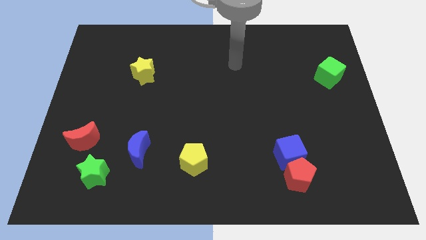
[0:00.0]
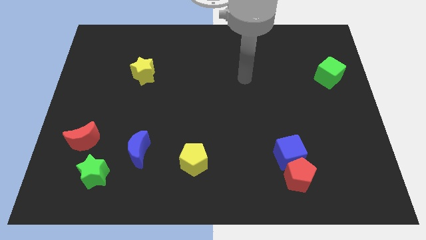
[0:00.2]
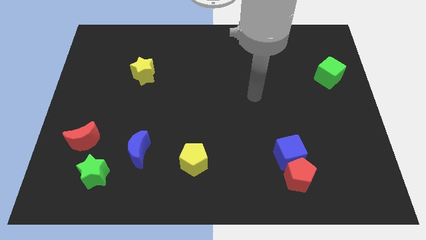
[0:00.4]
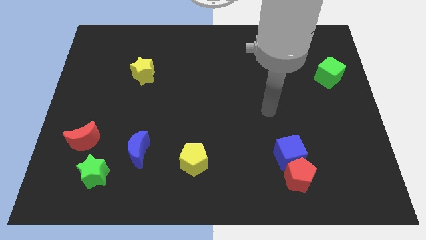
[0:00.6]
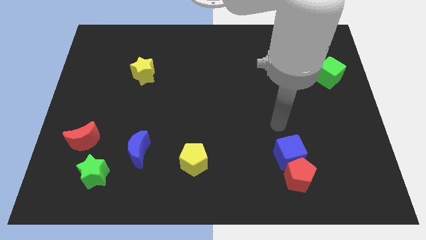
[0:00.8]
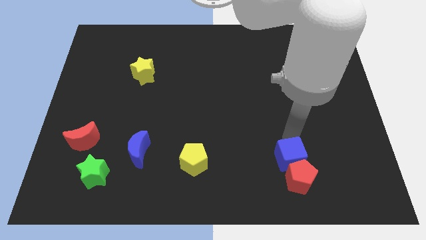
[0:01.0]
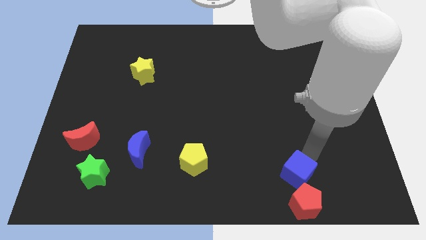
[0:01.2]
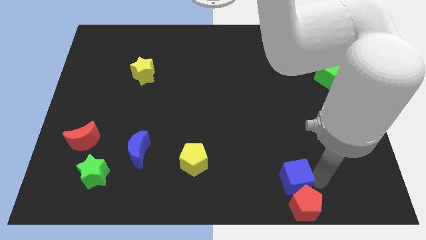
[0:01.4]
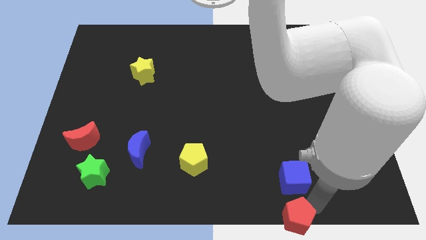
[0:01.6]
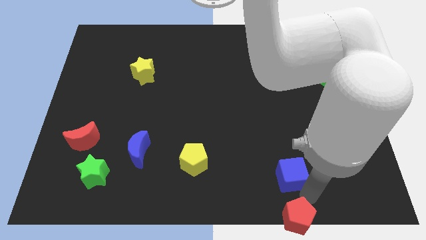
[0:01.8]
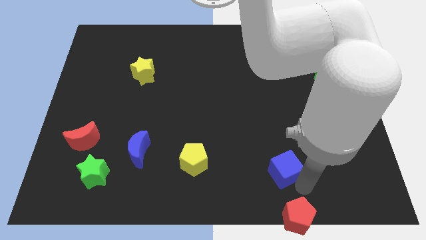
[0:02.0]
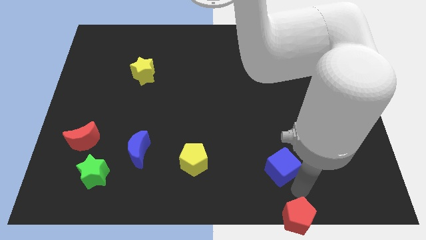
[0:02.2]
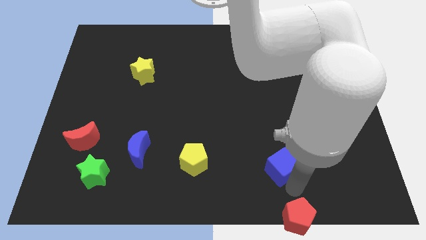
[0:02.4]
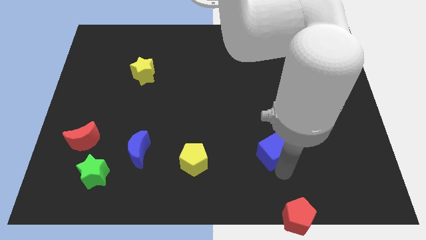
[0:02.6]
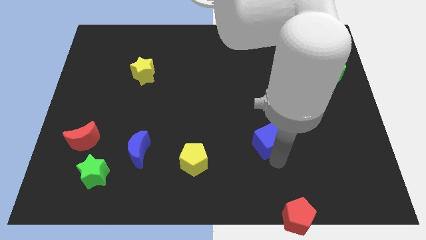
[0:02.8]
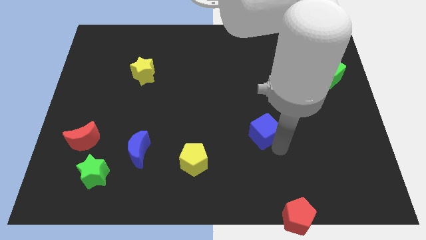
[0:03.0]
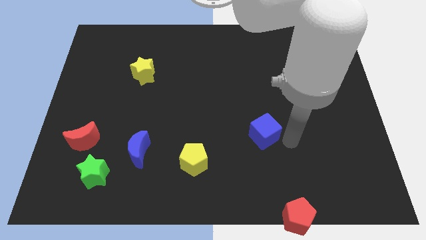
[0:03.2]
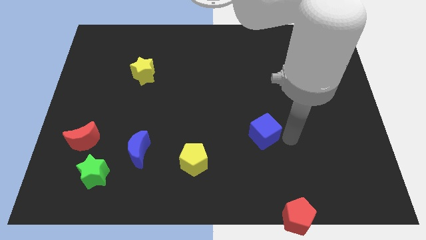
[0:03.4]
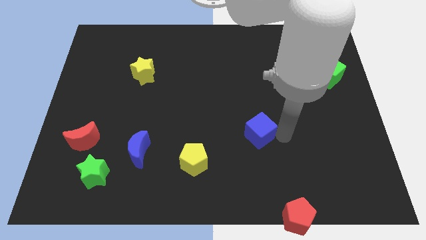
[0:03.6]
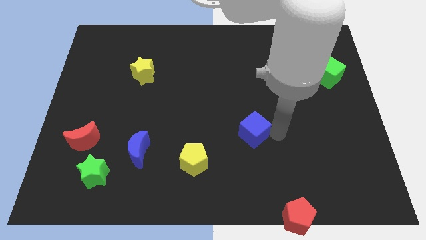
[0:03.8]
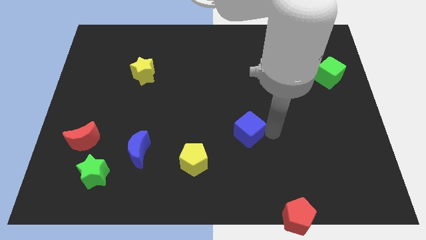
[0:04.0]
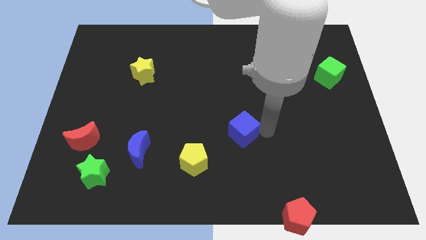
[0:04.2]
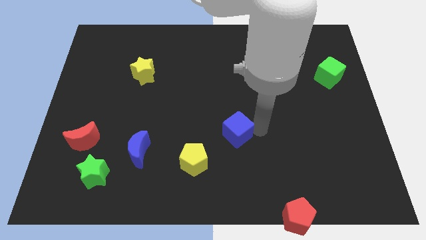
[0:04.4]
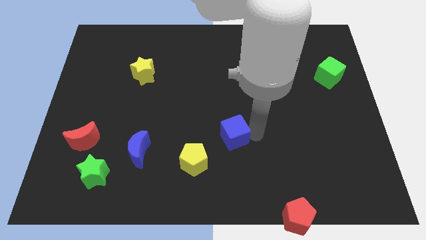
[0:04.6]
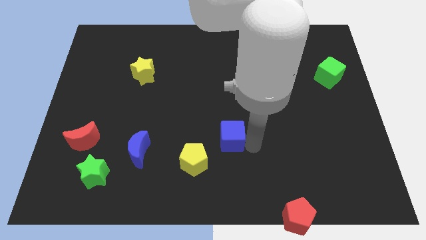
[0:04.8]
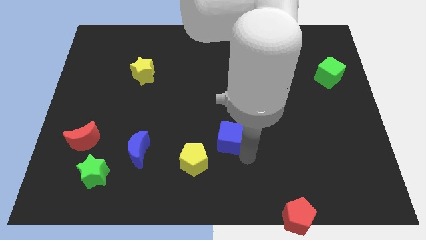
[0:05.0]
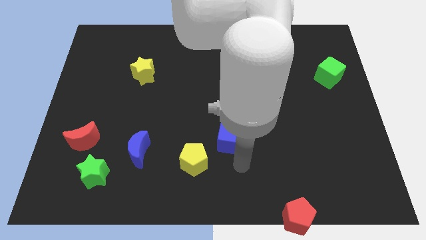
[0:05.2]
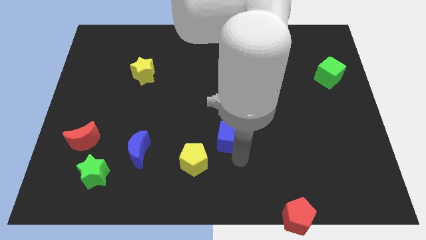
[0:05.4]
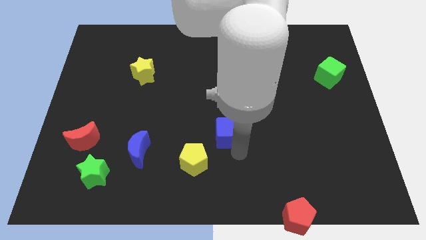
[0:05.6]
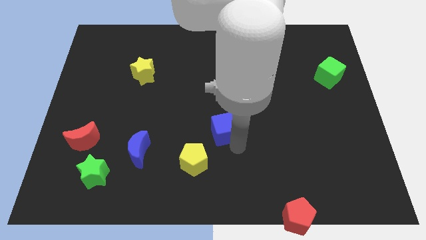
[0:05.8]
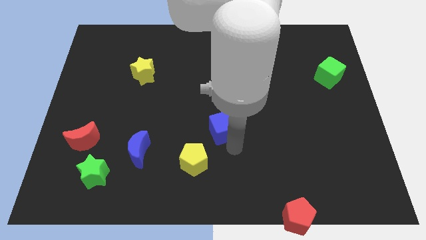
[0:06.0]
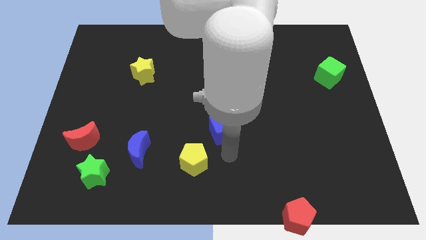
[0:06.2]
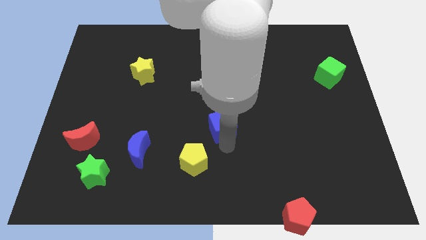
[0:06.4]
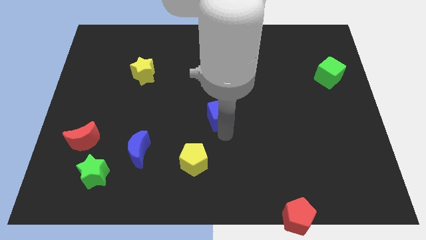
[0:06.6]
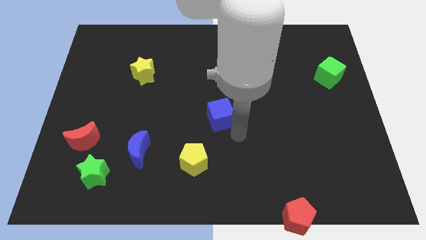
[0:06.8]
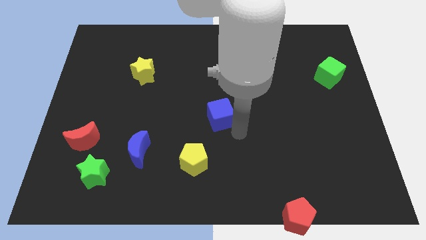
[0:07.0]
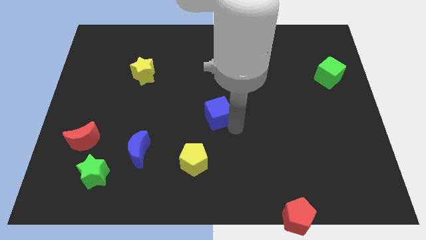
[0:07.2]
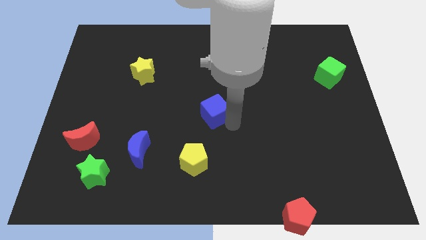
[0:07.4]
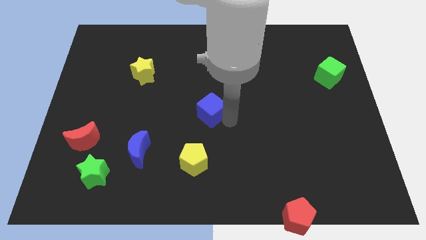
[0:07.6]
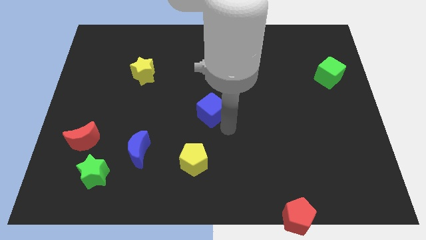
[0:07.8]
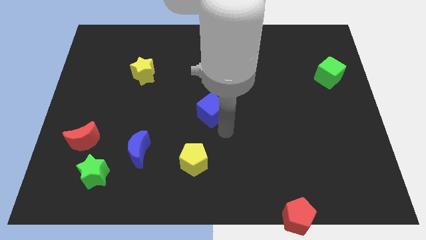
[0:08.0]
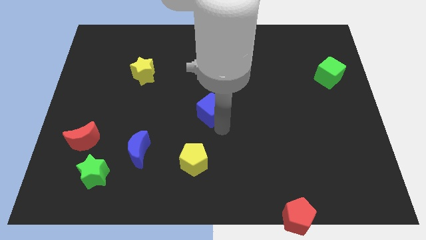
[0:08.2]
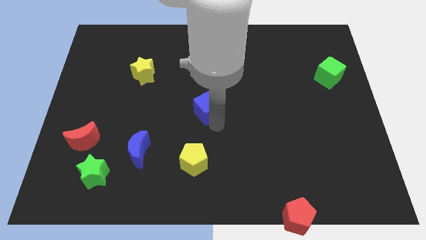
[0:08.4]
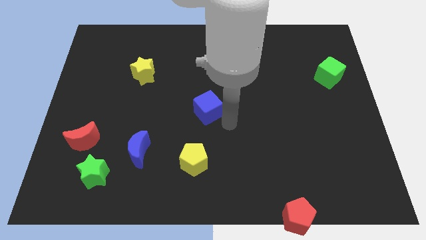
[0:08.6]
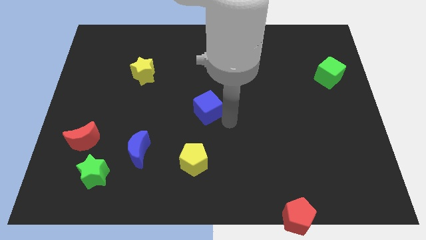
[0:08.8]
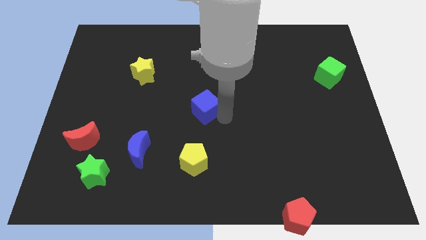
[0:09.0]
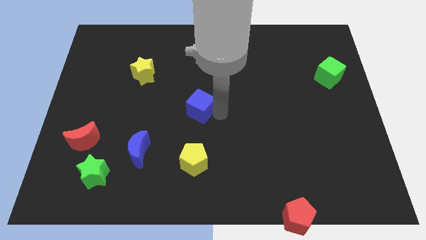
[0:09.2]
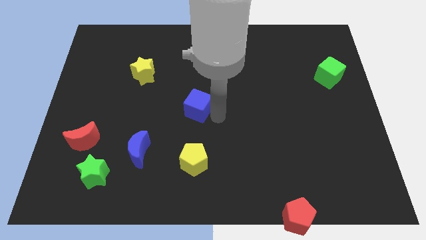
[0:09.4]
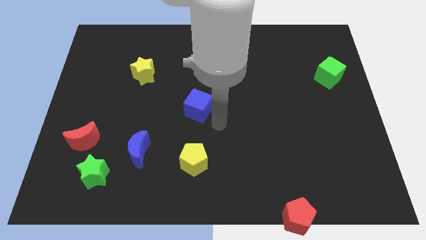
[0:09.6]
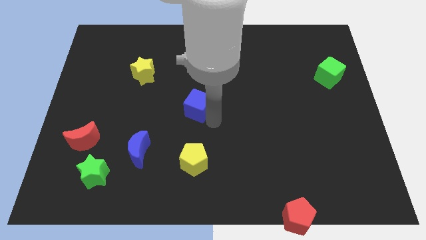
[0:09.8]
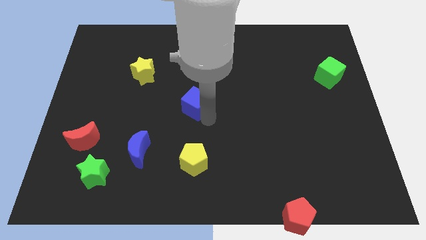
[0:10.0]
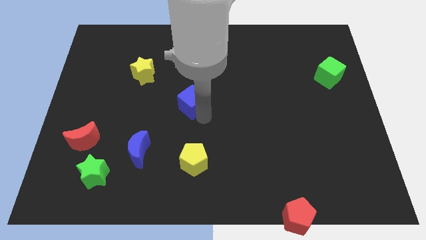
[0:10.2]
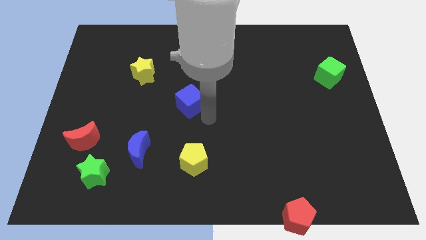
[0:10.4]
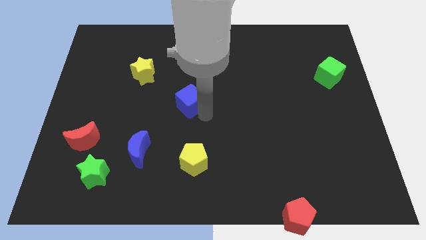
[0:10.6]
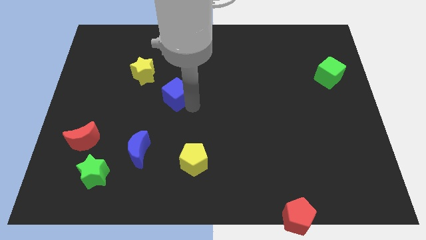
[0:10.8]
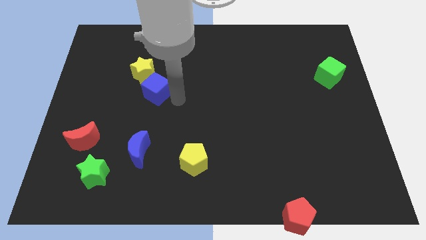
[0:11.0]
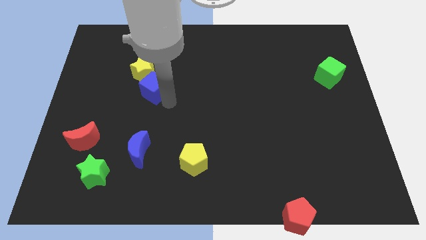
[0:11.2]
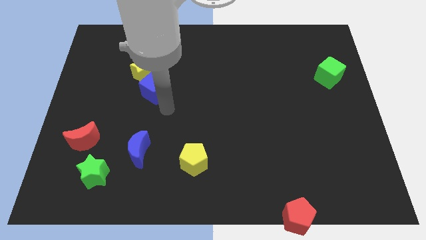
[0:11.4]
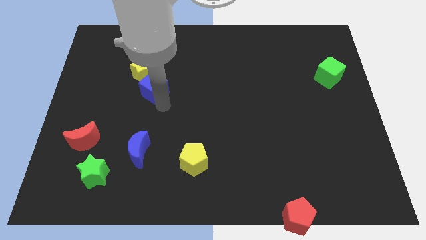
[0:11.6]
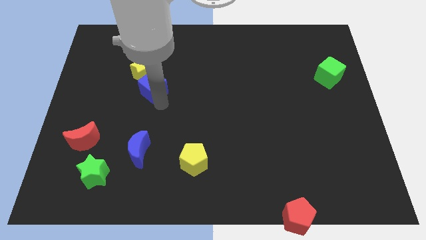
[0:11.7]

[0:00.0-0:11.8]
push the blue cube close to the yellow star

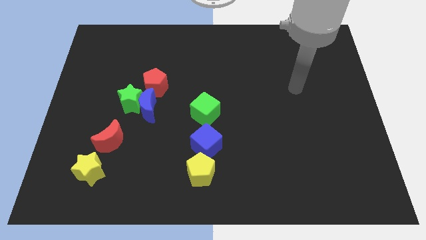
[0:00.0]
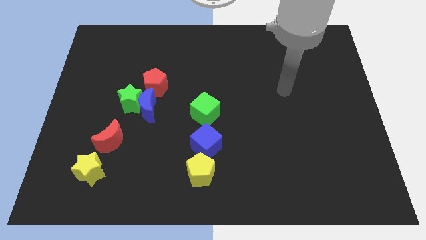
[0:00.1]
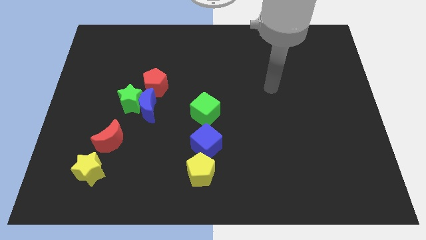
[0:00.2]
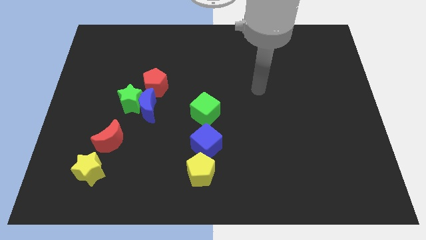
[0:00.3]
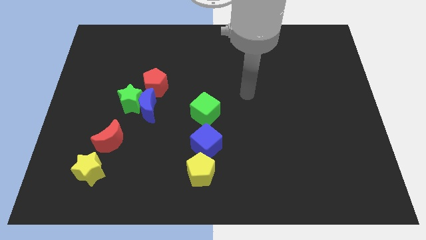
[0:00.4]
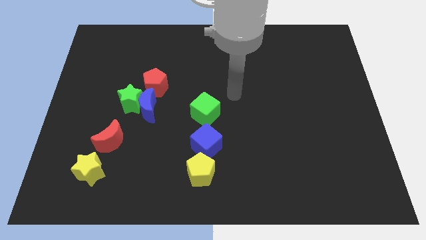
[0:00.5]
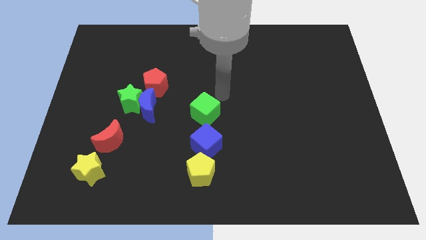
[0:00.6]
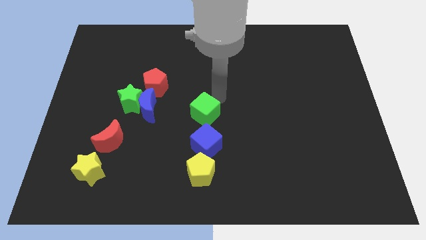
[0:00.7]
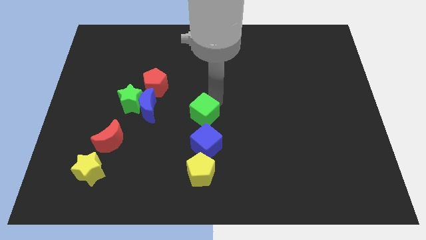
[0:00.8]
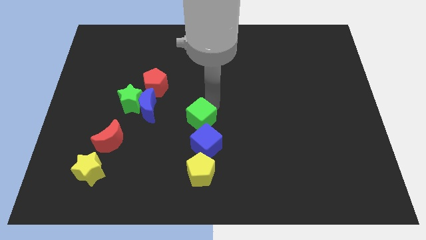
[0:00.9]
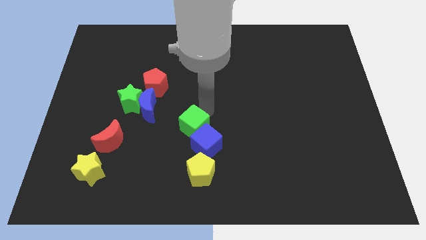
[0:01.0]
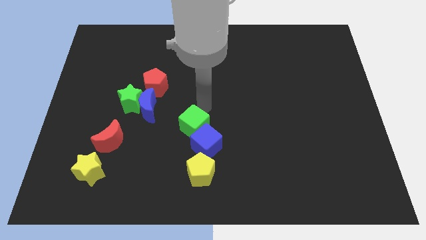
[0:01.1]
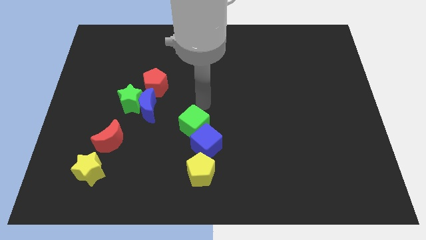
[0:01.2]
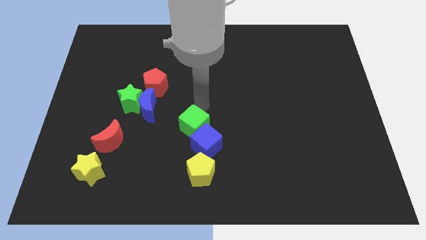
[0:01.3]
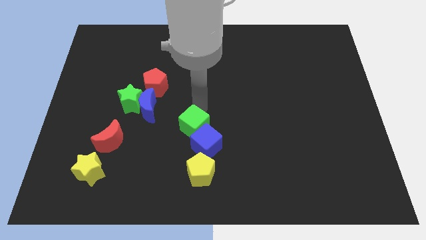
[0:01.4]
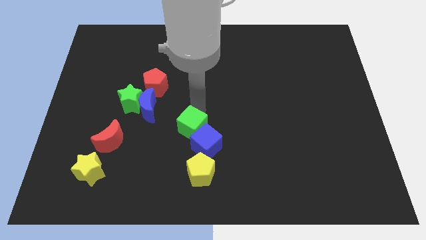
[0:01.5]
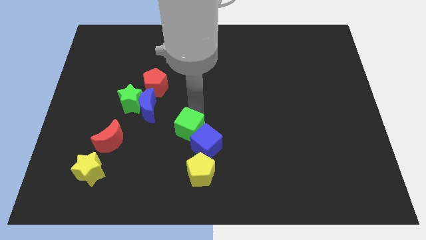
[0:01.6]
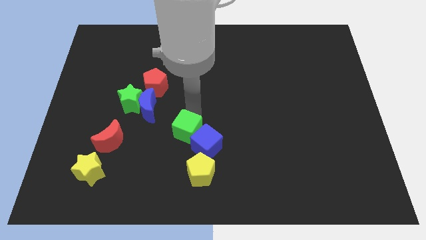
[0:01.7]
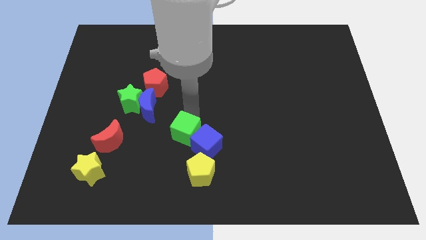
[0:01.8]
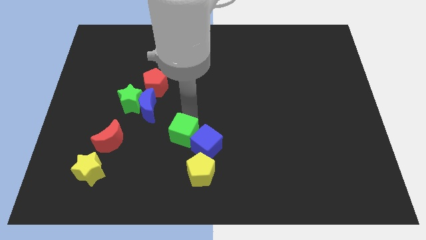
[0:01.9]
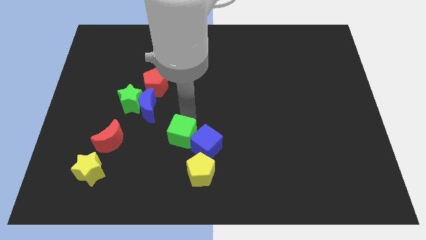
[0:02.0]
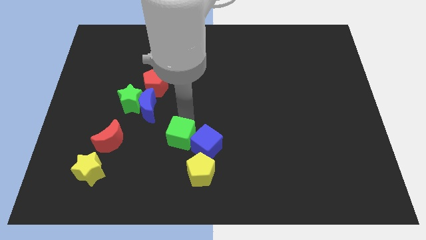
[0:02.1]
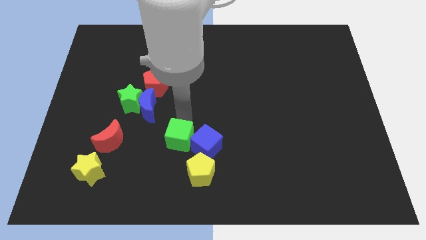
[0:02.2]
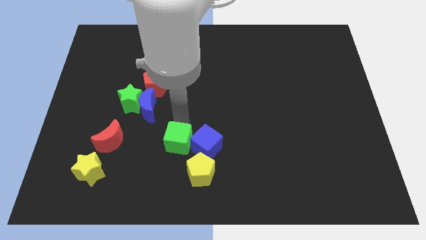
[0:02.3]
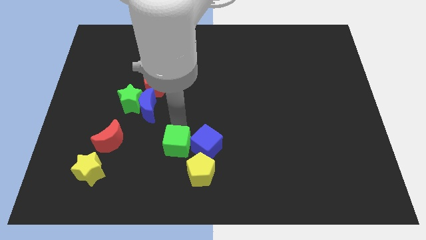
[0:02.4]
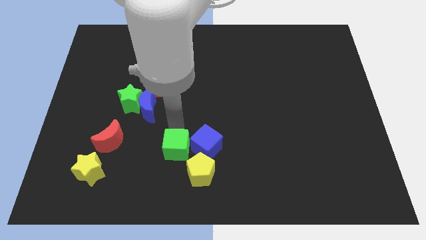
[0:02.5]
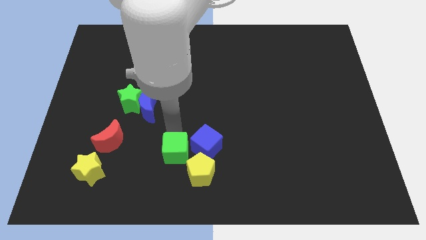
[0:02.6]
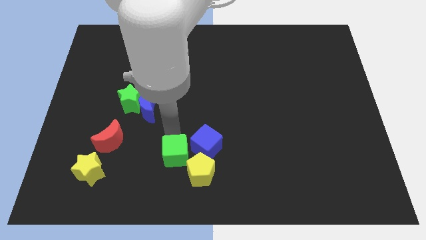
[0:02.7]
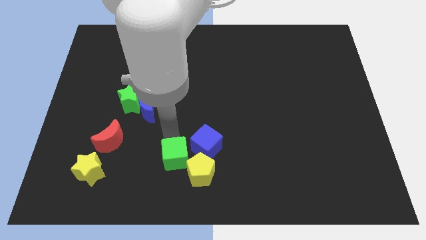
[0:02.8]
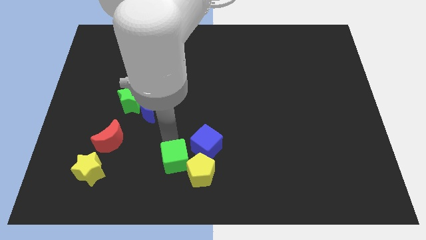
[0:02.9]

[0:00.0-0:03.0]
move the green cube to the yellow pentagon
